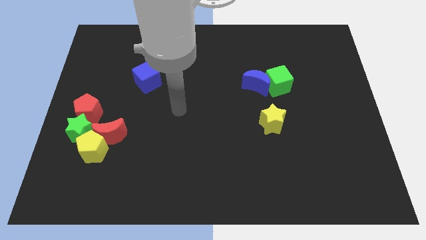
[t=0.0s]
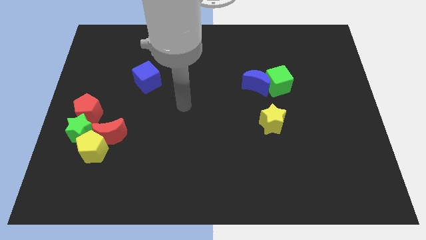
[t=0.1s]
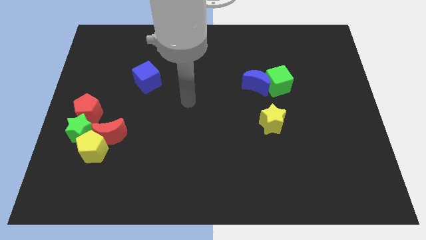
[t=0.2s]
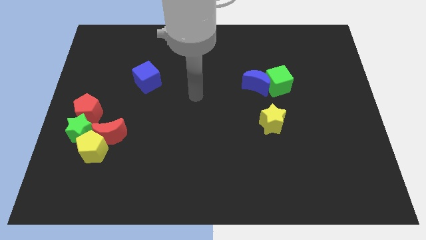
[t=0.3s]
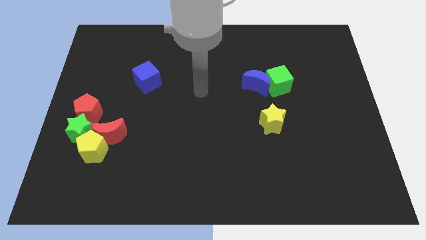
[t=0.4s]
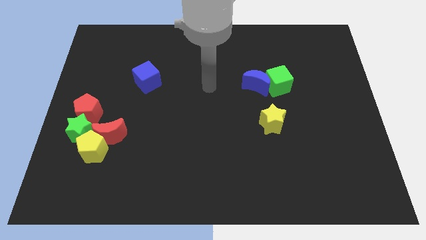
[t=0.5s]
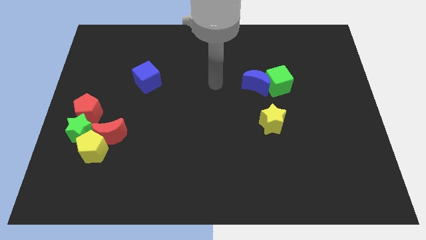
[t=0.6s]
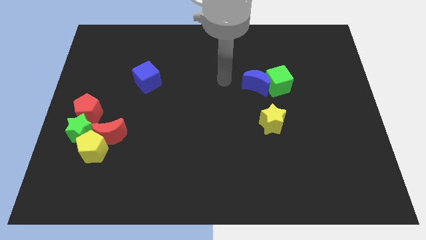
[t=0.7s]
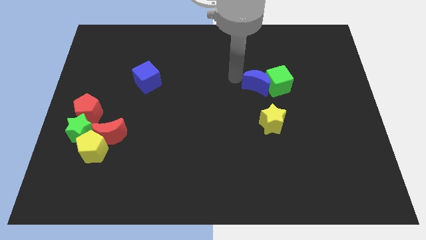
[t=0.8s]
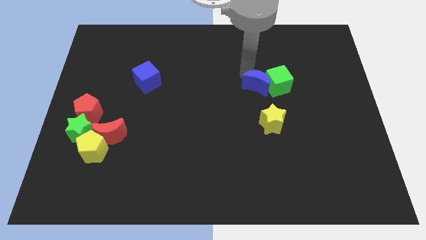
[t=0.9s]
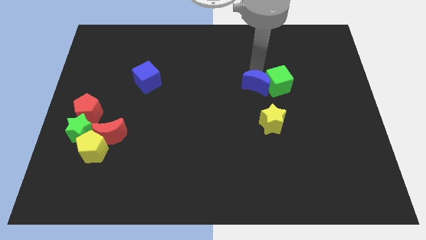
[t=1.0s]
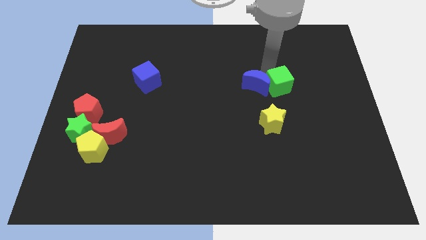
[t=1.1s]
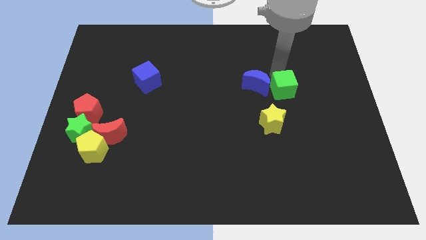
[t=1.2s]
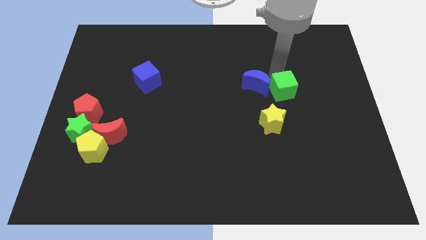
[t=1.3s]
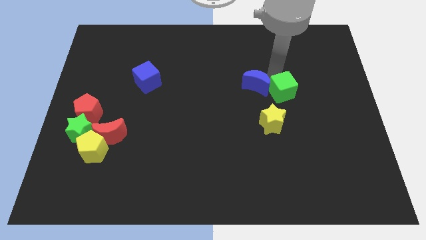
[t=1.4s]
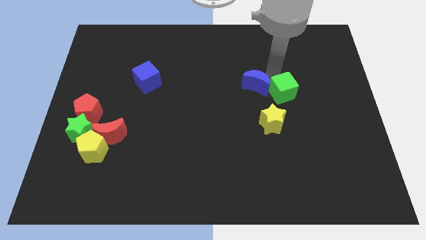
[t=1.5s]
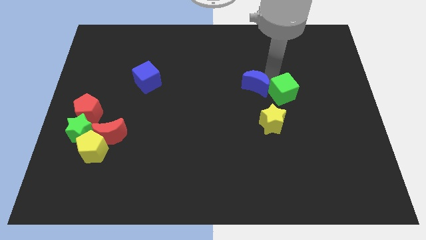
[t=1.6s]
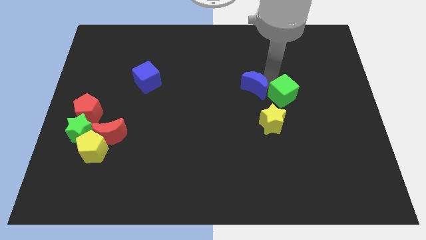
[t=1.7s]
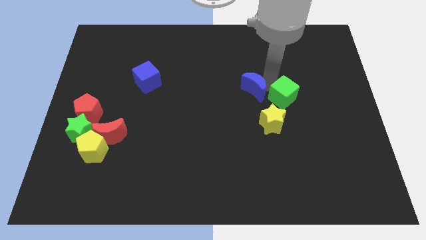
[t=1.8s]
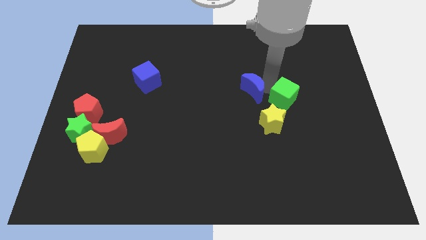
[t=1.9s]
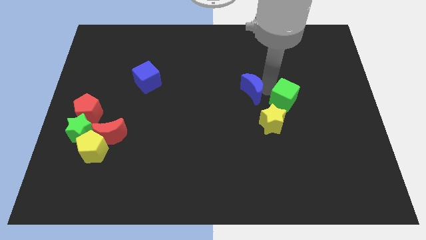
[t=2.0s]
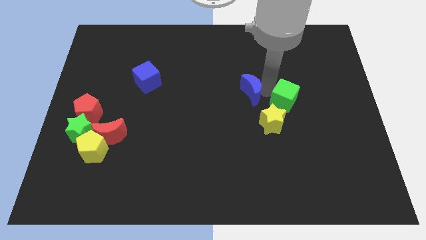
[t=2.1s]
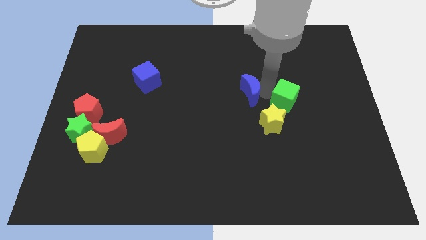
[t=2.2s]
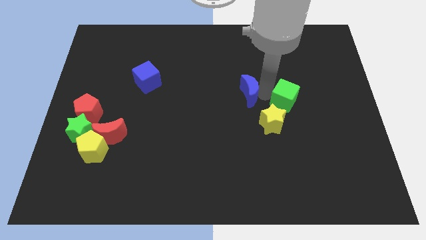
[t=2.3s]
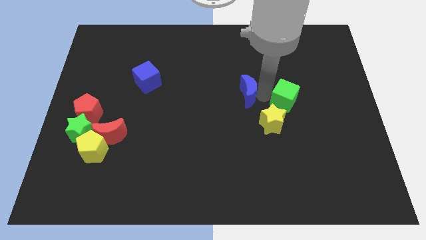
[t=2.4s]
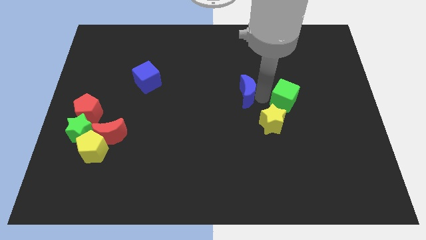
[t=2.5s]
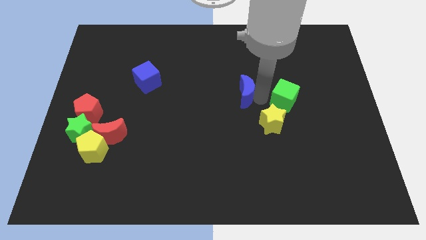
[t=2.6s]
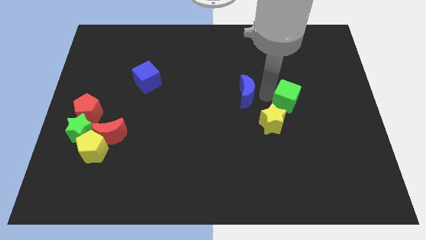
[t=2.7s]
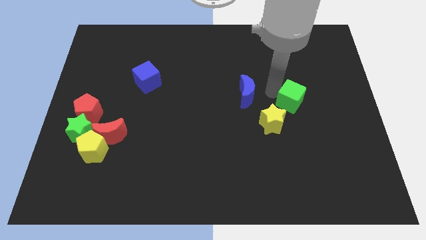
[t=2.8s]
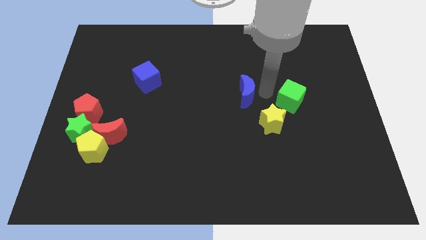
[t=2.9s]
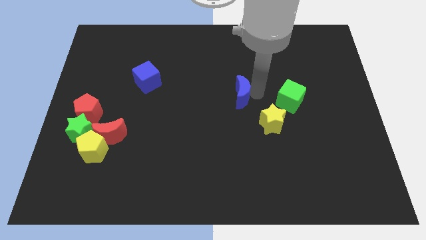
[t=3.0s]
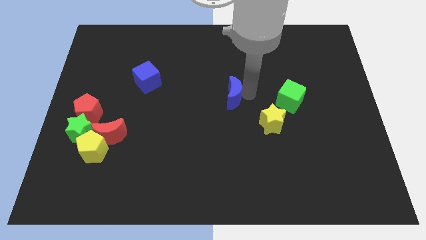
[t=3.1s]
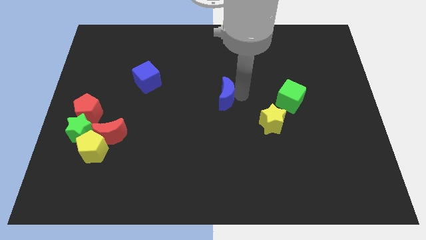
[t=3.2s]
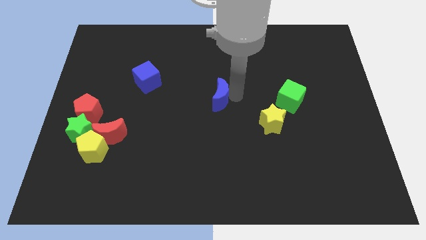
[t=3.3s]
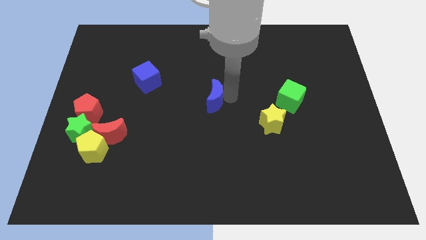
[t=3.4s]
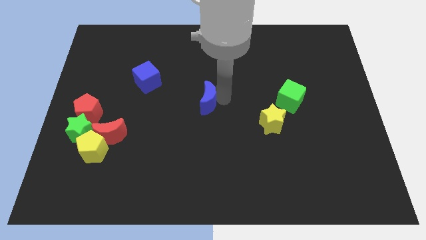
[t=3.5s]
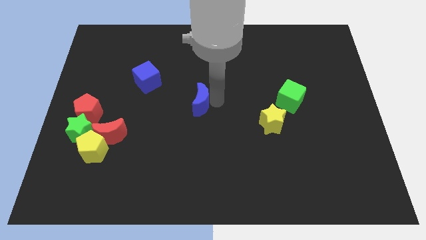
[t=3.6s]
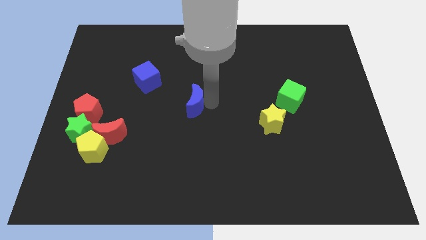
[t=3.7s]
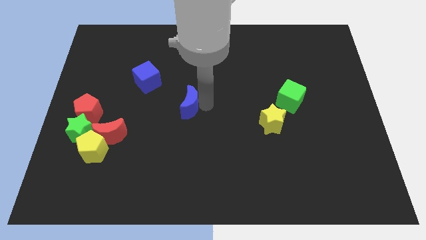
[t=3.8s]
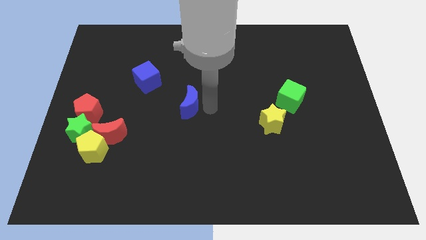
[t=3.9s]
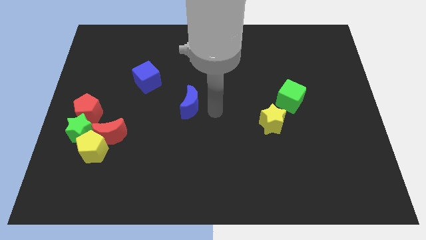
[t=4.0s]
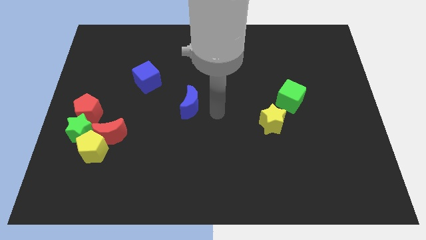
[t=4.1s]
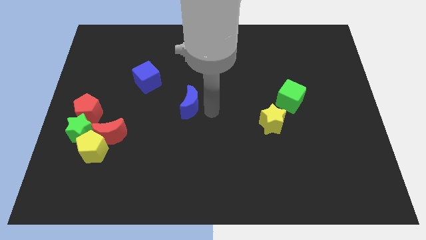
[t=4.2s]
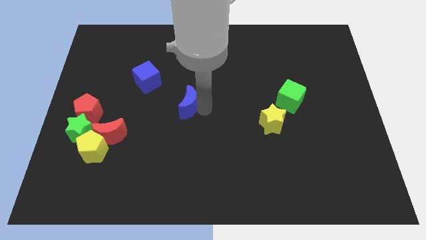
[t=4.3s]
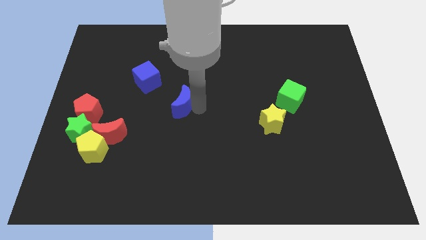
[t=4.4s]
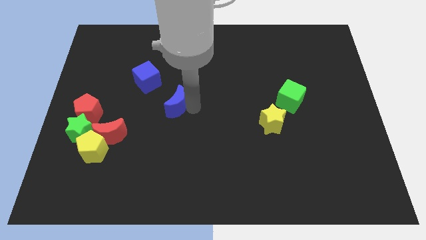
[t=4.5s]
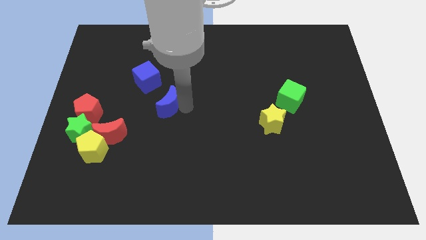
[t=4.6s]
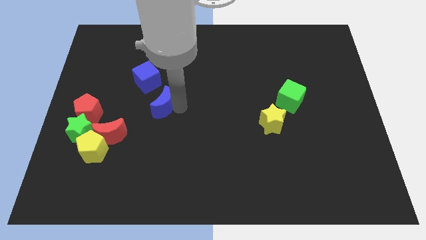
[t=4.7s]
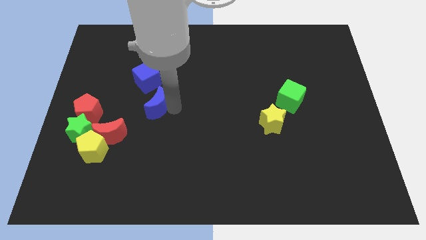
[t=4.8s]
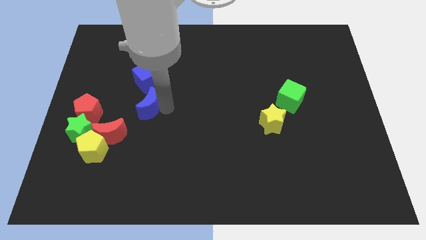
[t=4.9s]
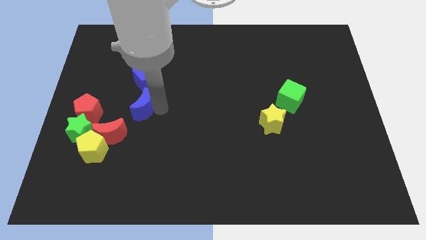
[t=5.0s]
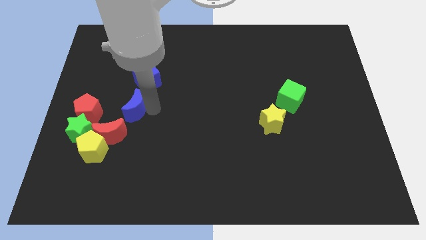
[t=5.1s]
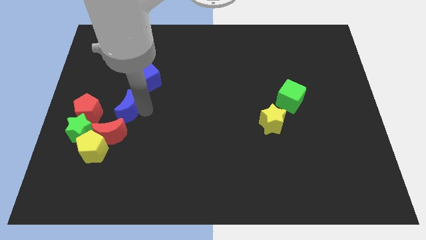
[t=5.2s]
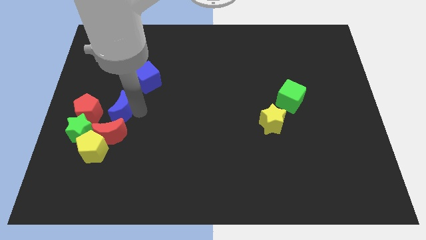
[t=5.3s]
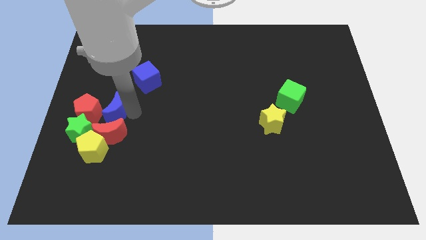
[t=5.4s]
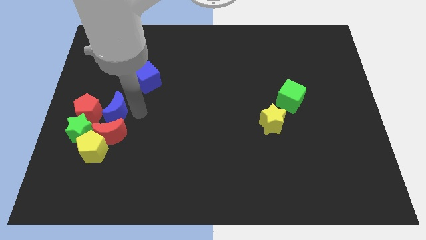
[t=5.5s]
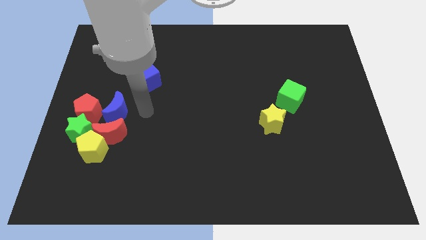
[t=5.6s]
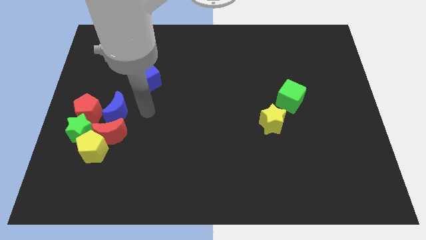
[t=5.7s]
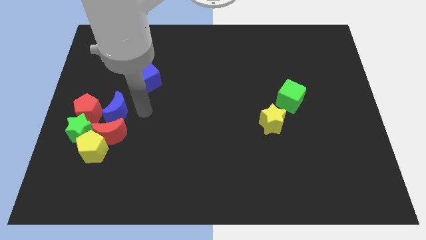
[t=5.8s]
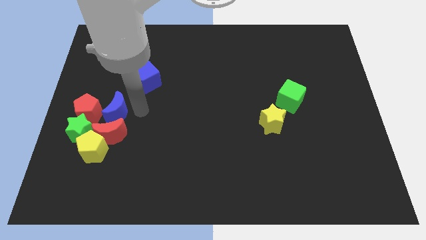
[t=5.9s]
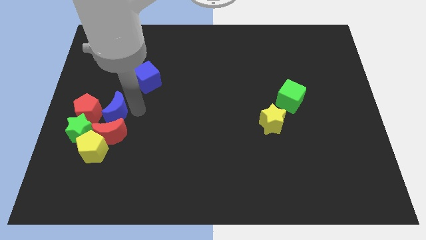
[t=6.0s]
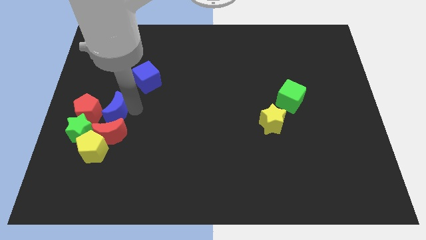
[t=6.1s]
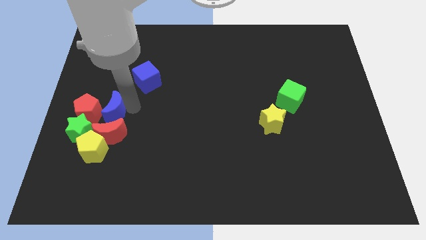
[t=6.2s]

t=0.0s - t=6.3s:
put the blue moon towards the red pentagon
